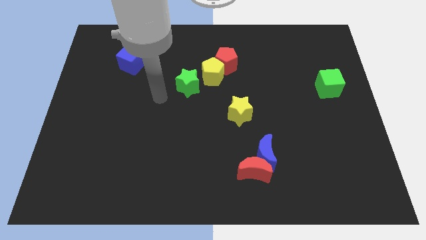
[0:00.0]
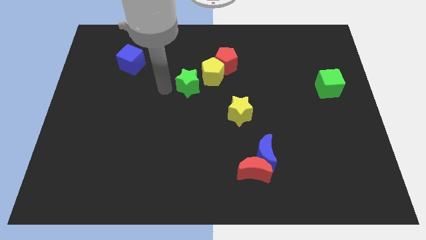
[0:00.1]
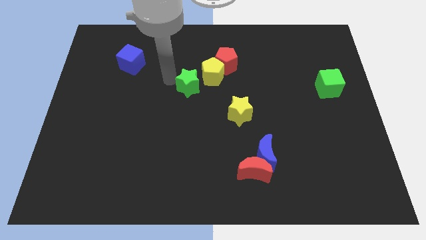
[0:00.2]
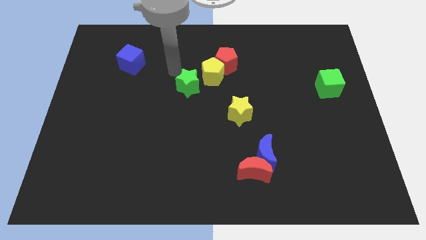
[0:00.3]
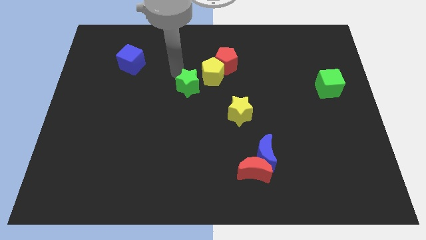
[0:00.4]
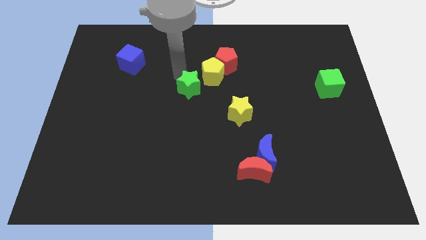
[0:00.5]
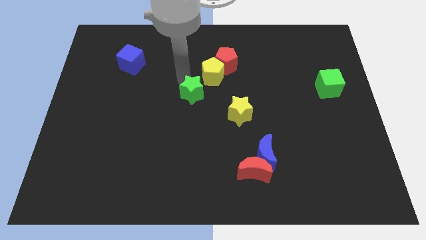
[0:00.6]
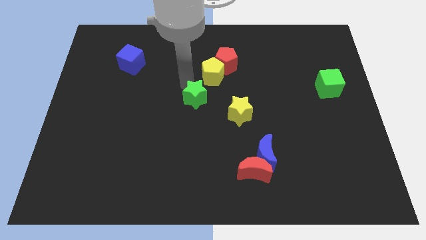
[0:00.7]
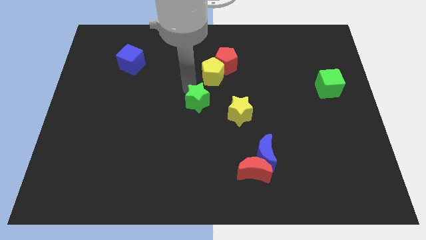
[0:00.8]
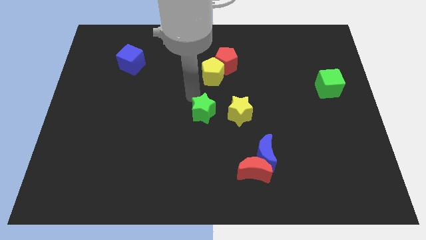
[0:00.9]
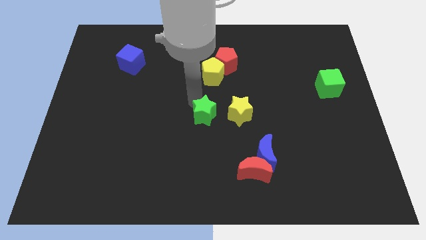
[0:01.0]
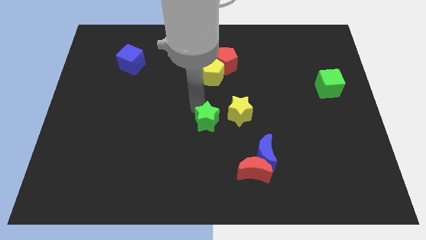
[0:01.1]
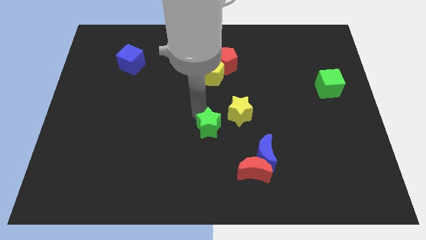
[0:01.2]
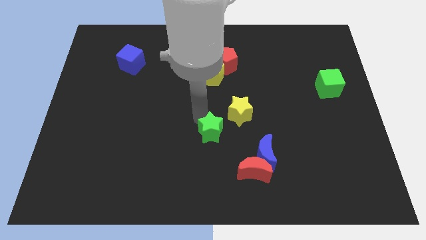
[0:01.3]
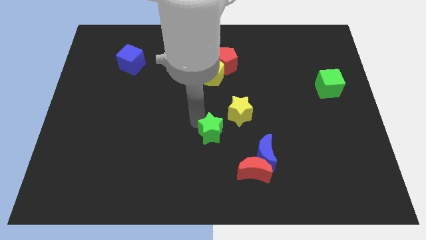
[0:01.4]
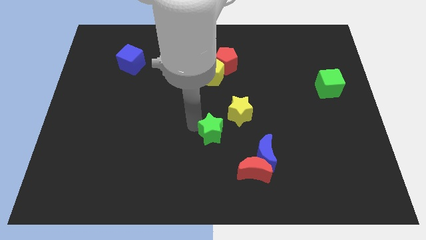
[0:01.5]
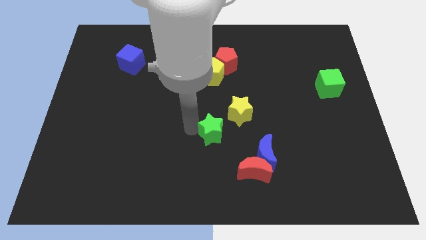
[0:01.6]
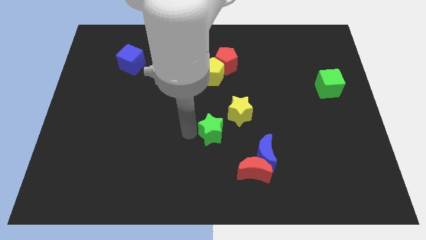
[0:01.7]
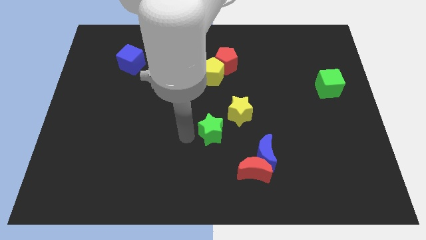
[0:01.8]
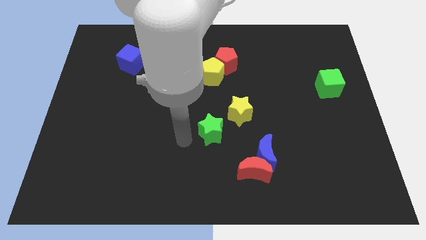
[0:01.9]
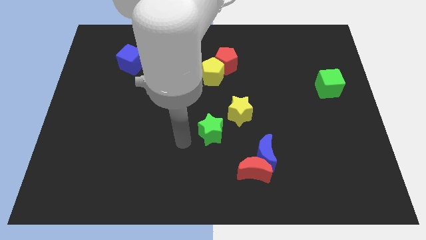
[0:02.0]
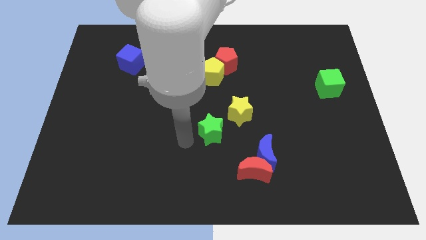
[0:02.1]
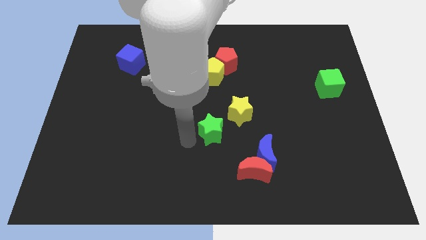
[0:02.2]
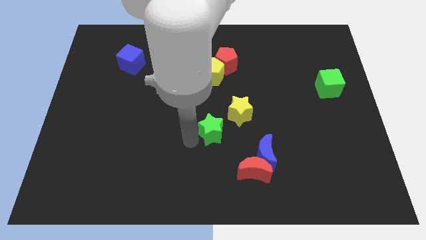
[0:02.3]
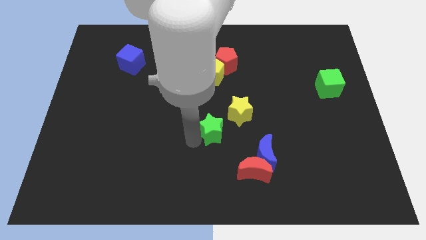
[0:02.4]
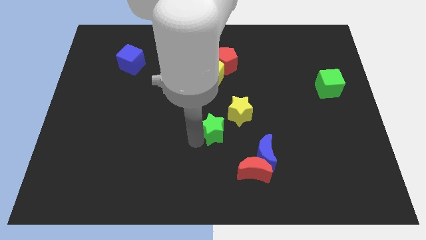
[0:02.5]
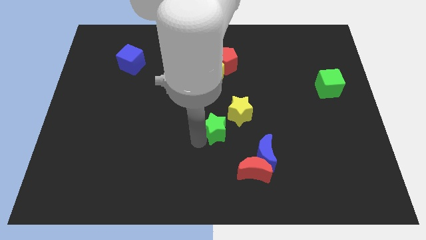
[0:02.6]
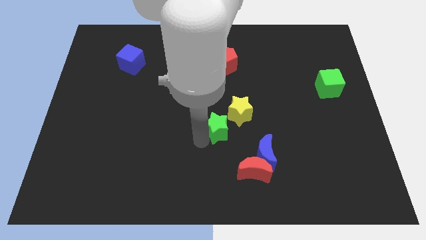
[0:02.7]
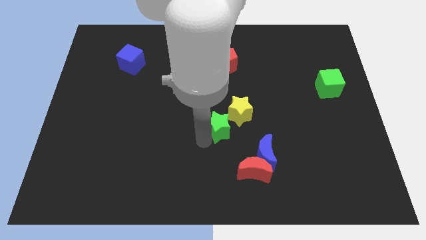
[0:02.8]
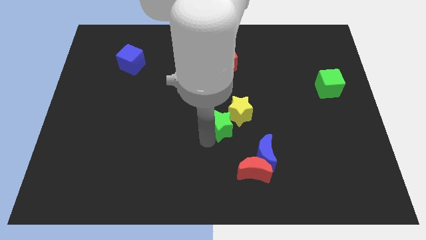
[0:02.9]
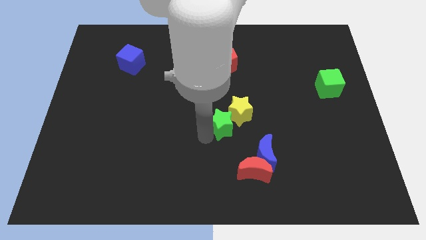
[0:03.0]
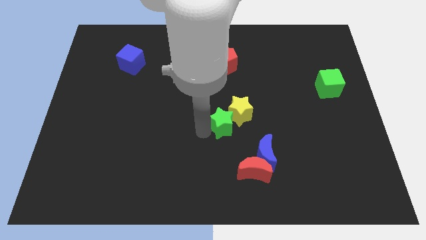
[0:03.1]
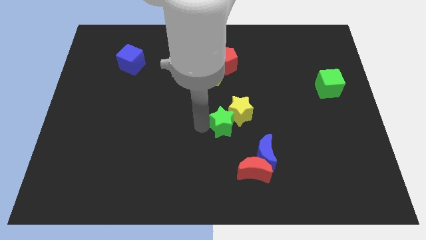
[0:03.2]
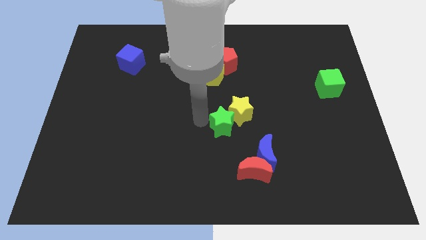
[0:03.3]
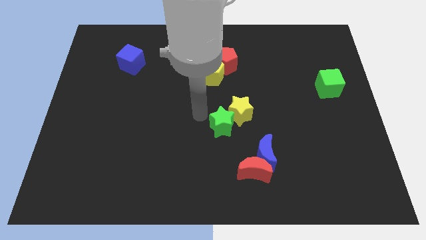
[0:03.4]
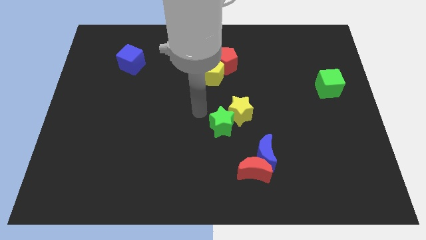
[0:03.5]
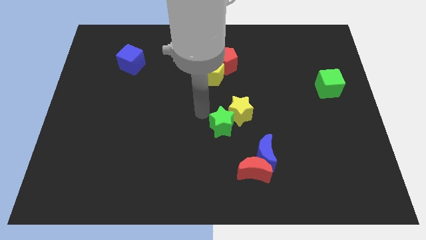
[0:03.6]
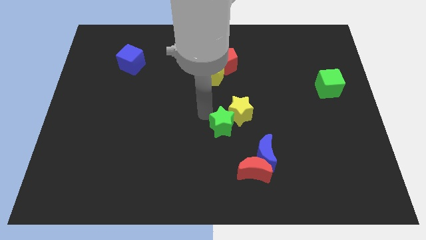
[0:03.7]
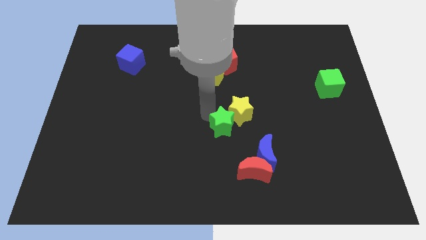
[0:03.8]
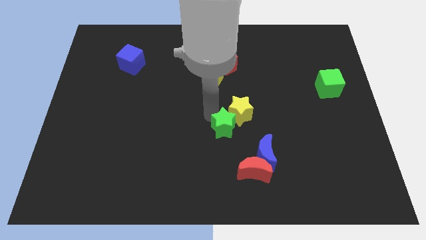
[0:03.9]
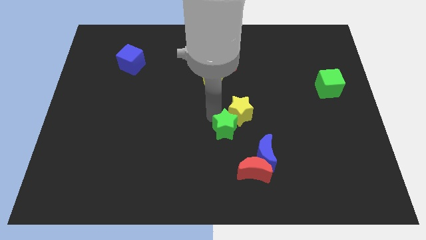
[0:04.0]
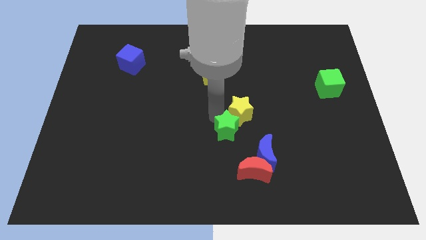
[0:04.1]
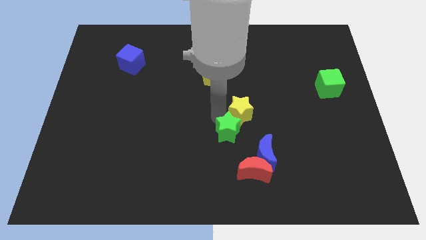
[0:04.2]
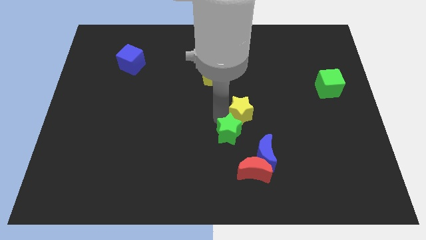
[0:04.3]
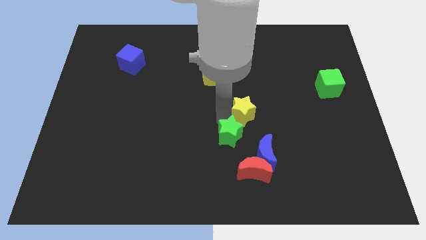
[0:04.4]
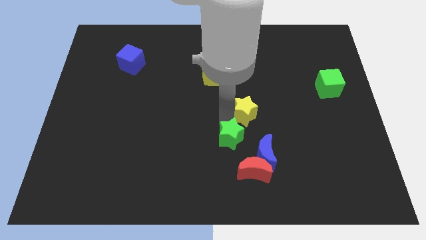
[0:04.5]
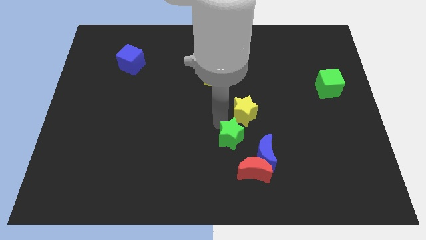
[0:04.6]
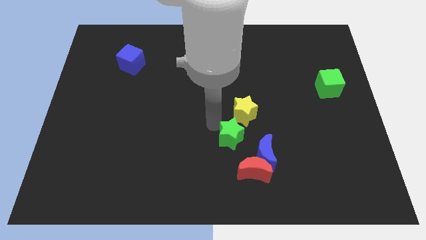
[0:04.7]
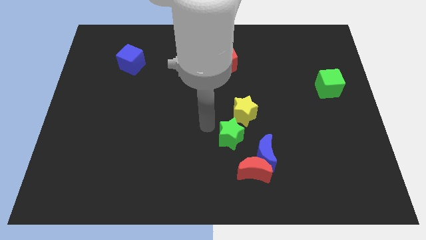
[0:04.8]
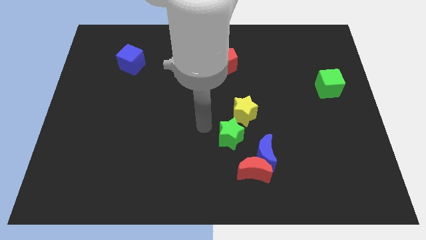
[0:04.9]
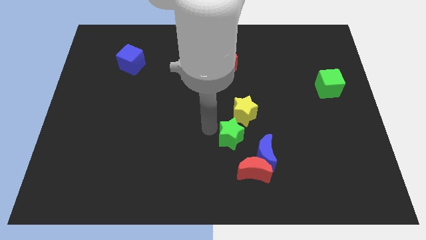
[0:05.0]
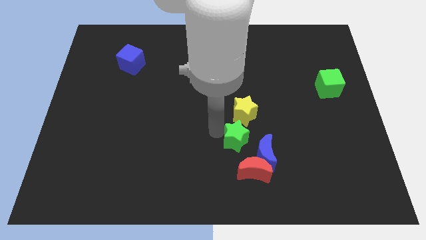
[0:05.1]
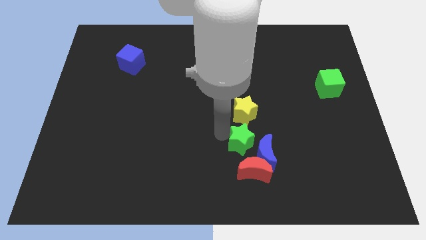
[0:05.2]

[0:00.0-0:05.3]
push the green star next to the blue moon

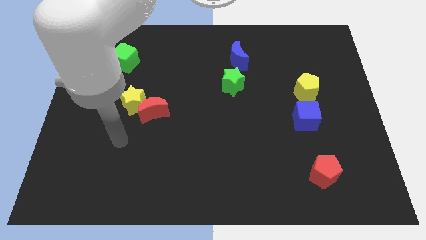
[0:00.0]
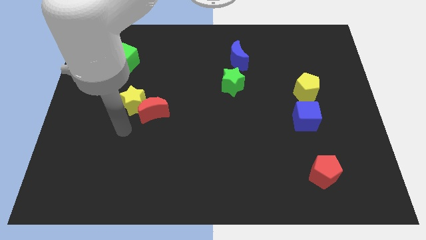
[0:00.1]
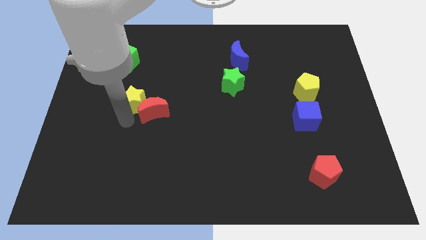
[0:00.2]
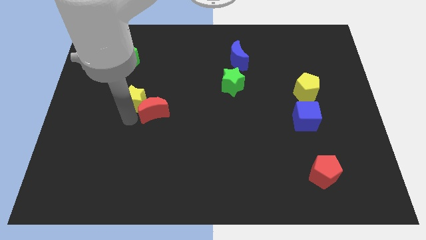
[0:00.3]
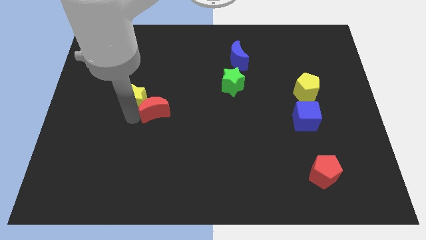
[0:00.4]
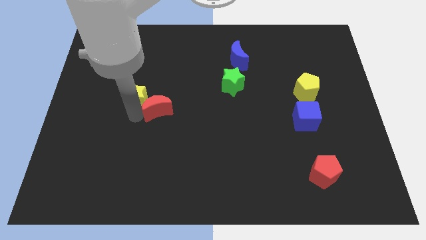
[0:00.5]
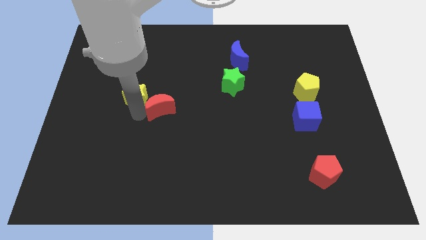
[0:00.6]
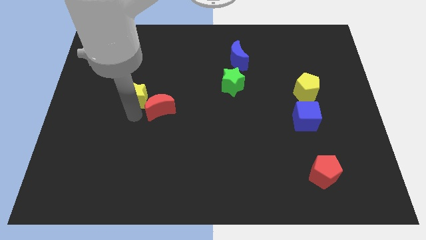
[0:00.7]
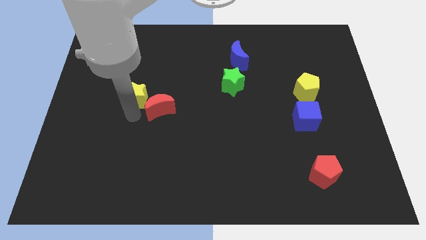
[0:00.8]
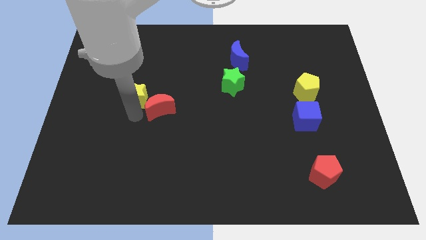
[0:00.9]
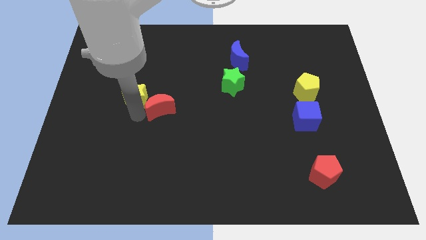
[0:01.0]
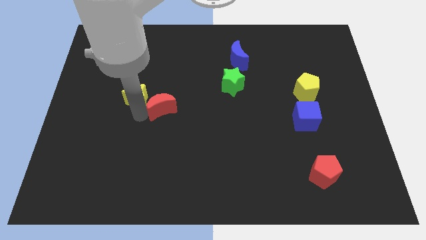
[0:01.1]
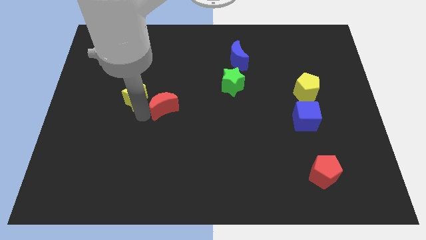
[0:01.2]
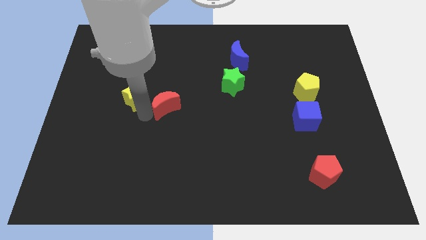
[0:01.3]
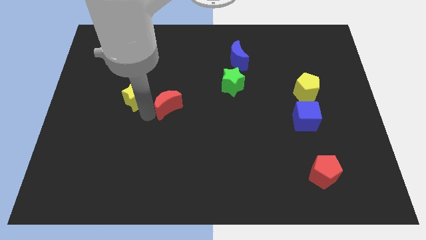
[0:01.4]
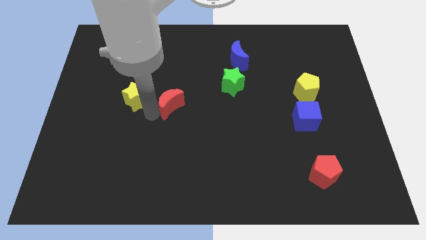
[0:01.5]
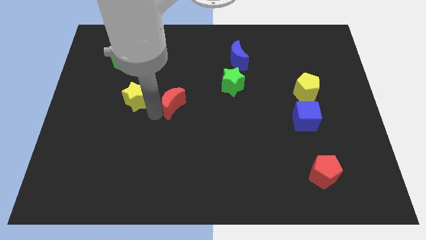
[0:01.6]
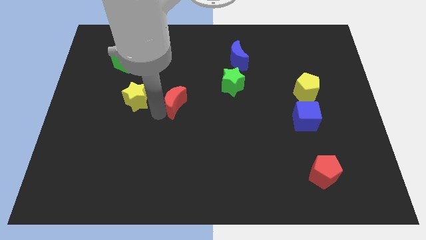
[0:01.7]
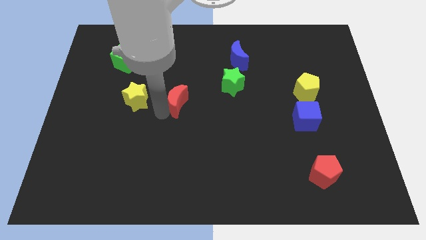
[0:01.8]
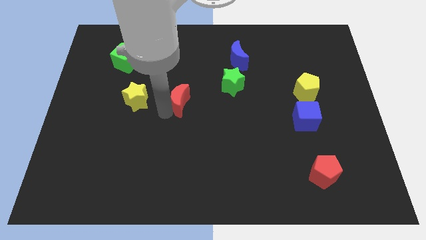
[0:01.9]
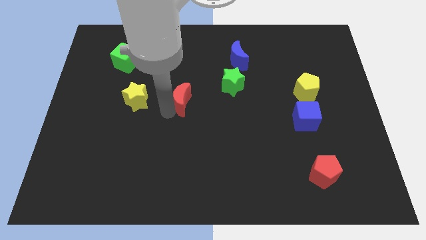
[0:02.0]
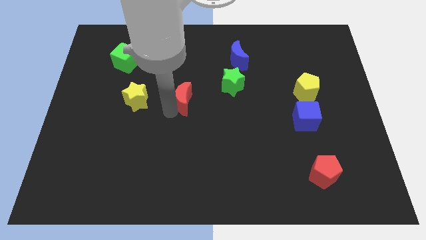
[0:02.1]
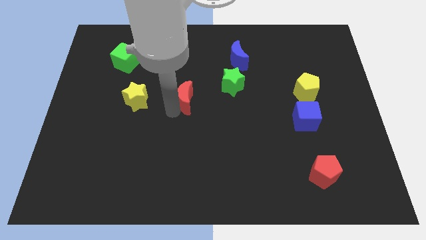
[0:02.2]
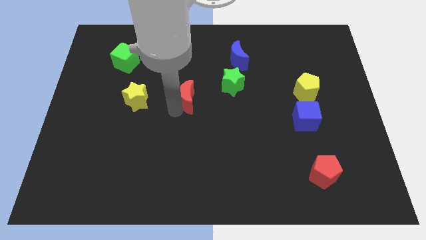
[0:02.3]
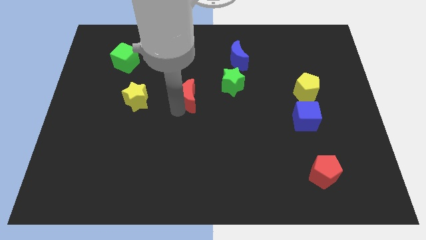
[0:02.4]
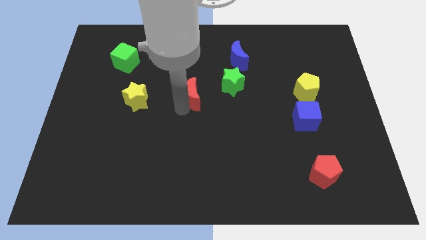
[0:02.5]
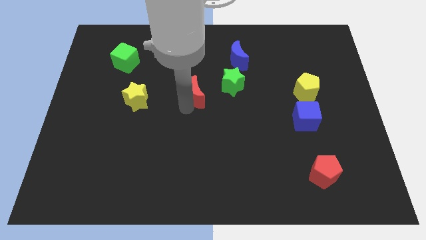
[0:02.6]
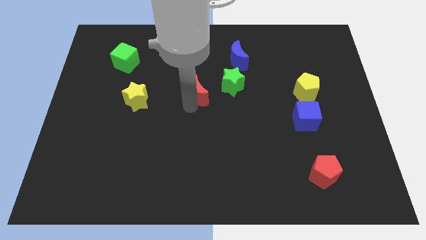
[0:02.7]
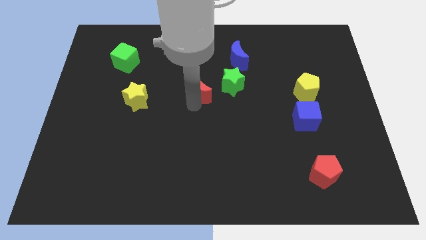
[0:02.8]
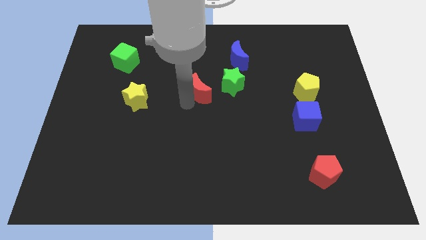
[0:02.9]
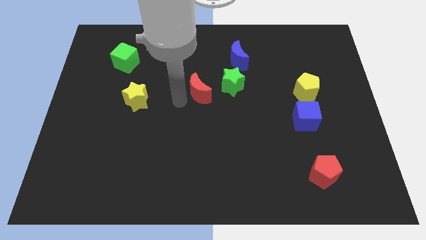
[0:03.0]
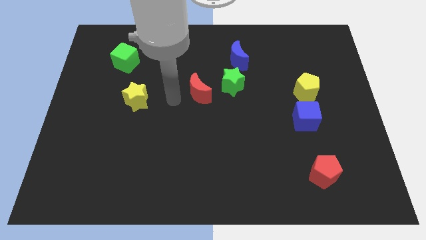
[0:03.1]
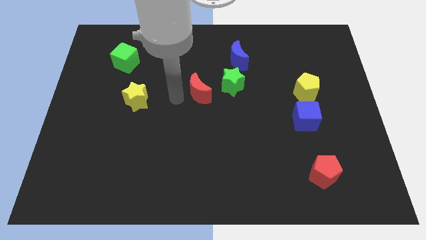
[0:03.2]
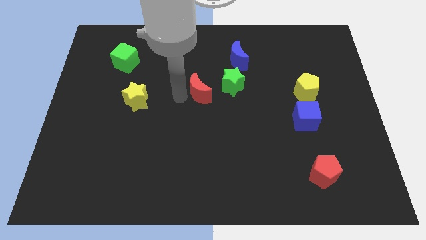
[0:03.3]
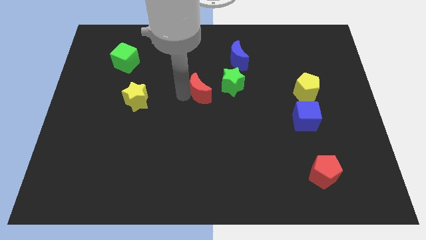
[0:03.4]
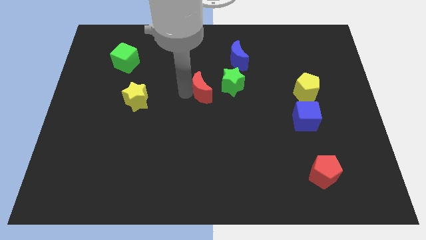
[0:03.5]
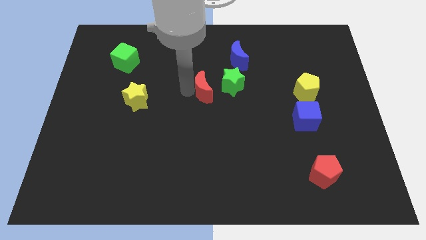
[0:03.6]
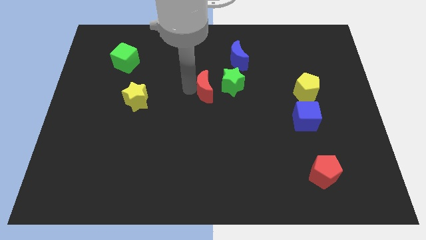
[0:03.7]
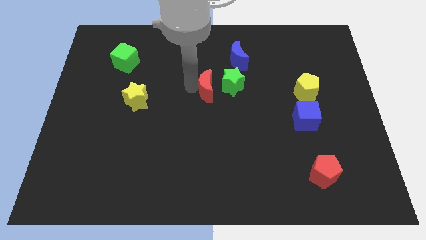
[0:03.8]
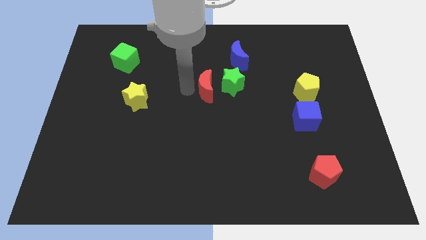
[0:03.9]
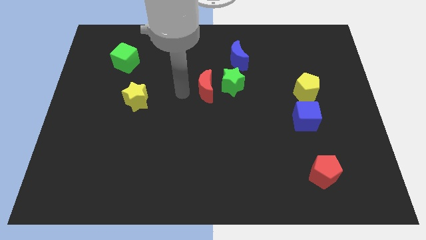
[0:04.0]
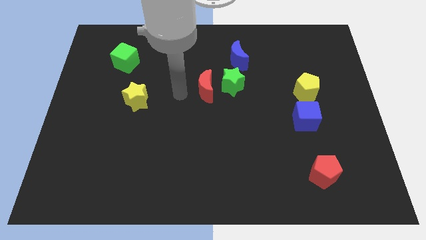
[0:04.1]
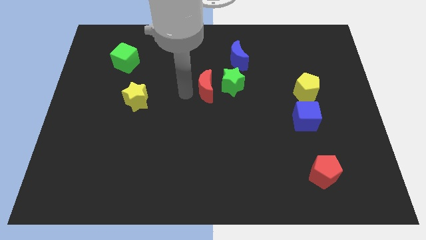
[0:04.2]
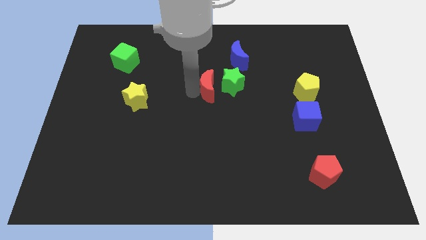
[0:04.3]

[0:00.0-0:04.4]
put the red moon to the green star
